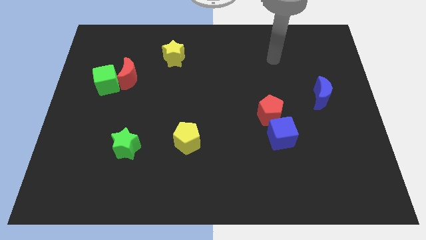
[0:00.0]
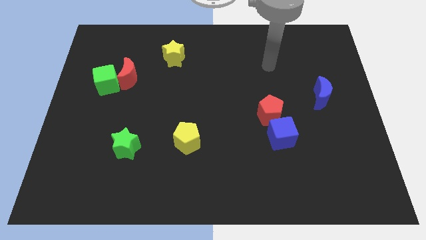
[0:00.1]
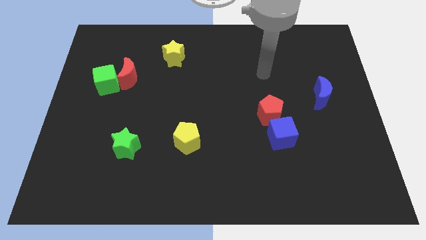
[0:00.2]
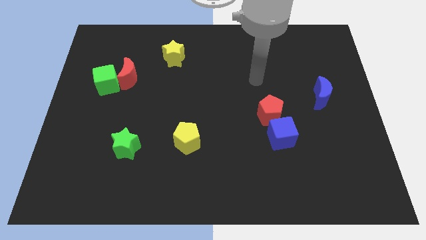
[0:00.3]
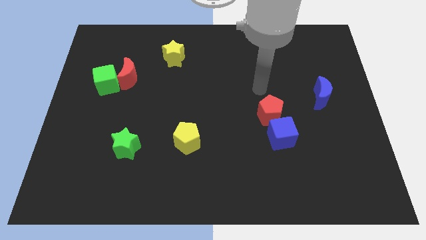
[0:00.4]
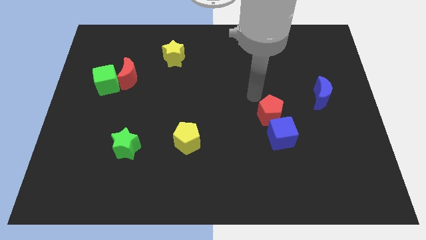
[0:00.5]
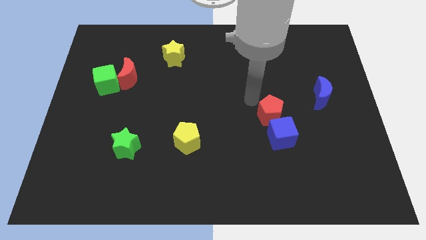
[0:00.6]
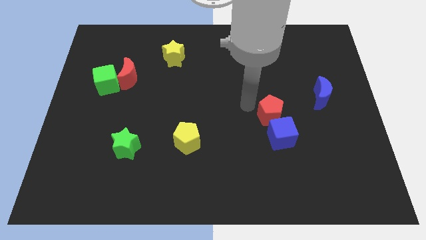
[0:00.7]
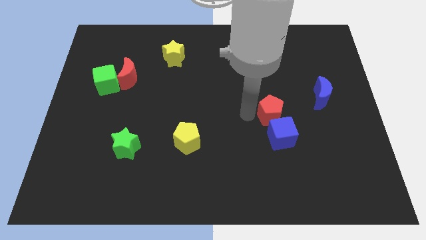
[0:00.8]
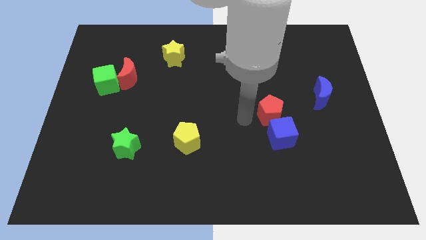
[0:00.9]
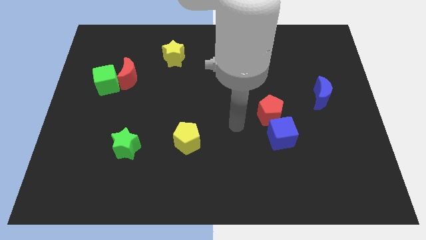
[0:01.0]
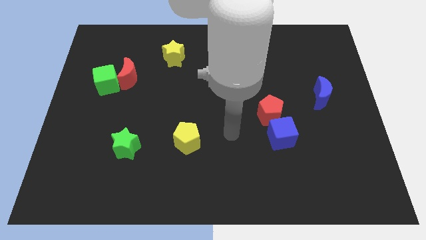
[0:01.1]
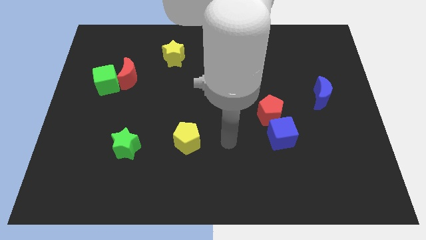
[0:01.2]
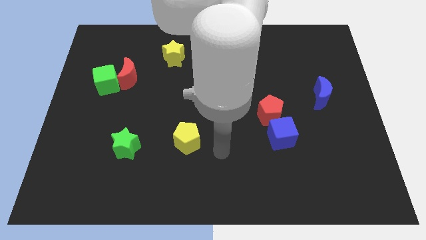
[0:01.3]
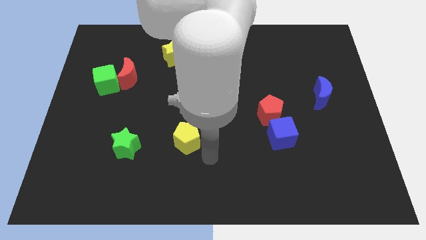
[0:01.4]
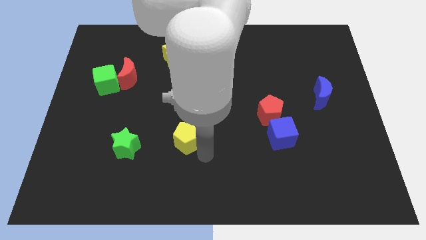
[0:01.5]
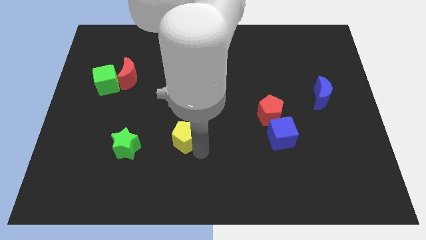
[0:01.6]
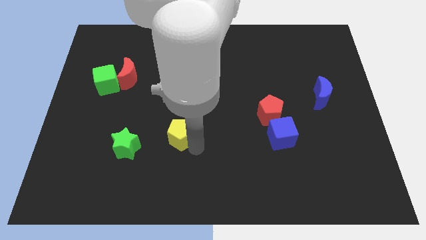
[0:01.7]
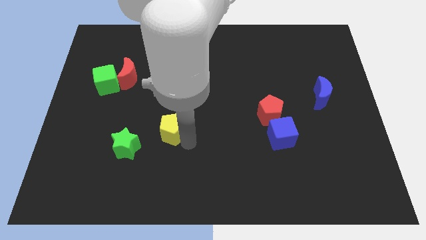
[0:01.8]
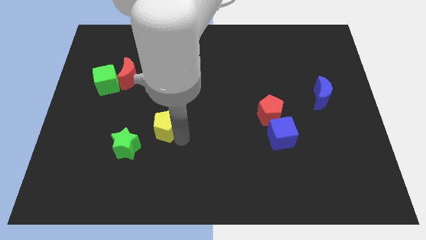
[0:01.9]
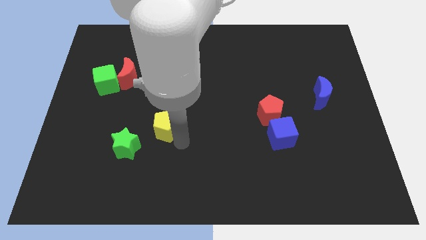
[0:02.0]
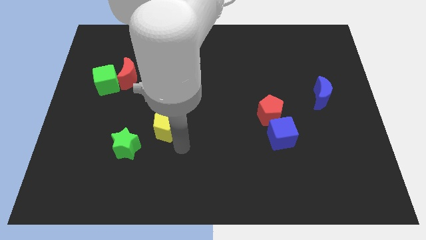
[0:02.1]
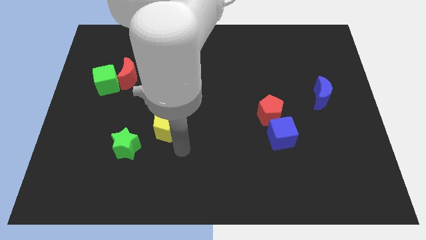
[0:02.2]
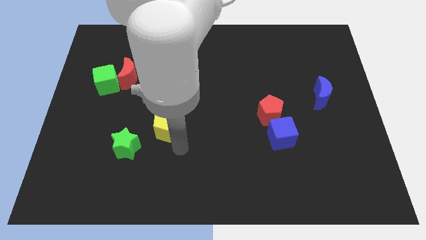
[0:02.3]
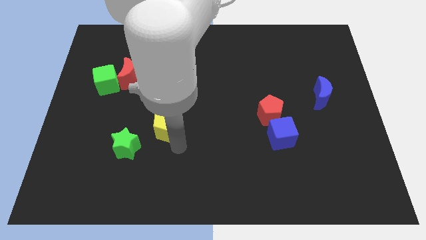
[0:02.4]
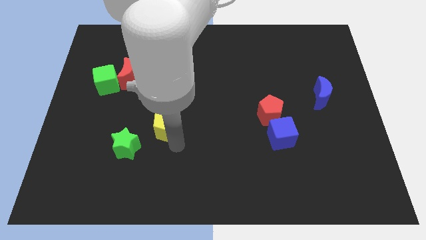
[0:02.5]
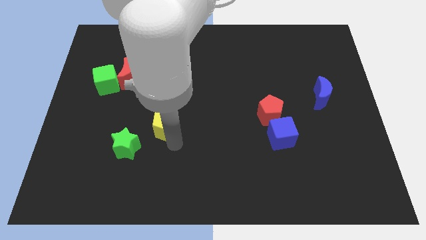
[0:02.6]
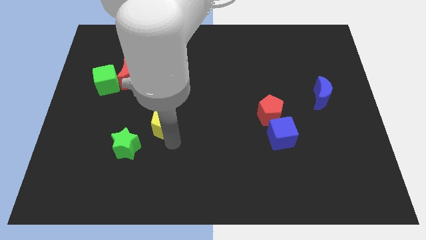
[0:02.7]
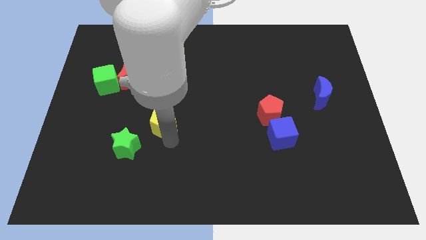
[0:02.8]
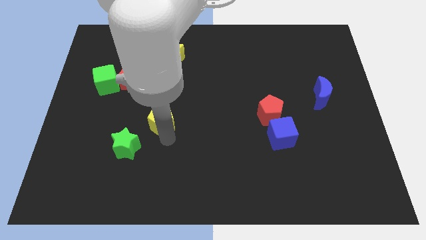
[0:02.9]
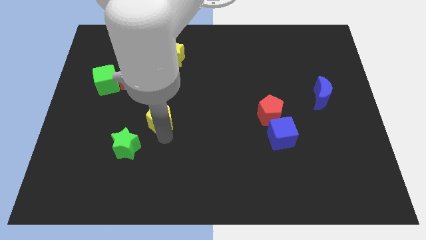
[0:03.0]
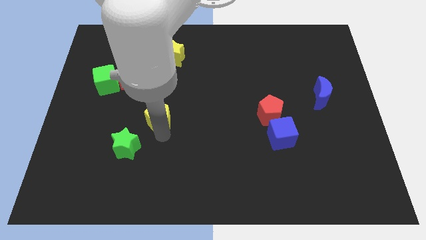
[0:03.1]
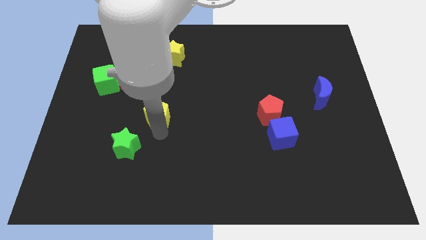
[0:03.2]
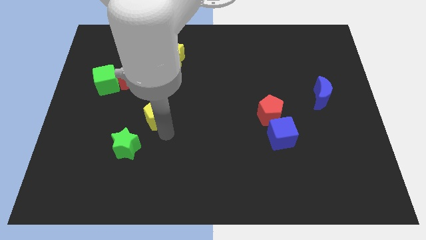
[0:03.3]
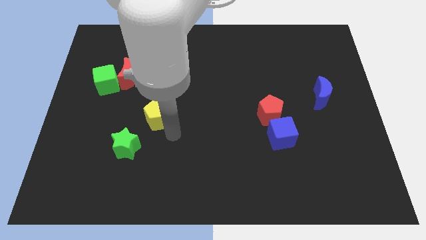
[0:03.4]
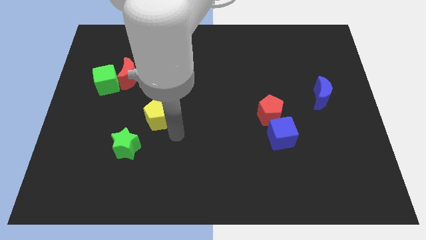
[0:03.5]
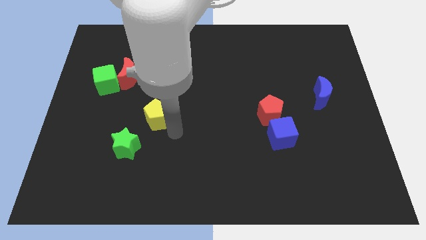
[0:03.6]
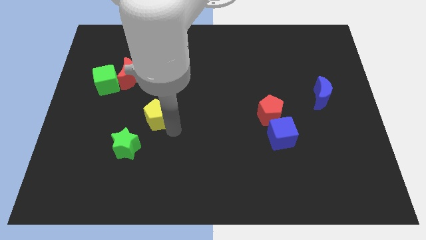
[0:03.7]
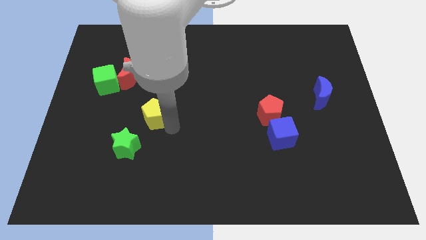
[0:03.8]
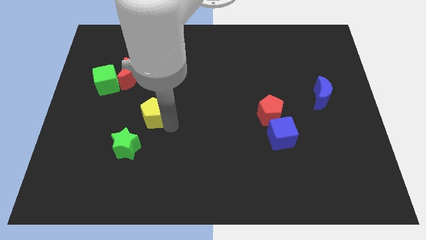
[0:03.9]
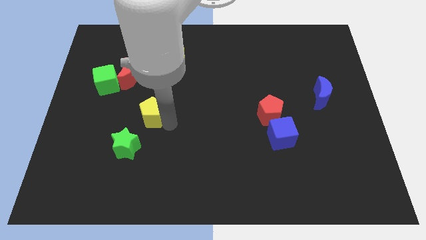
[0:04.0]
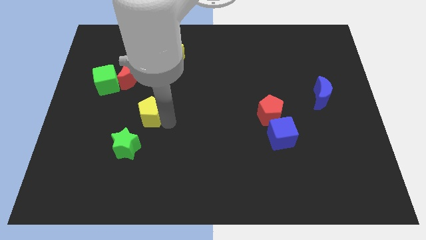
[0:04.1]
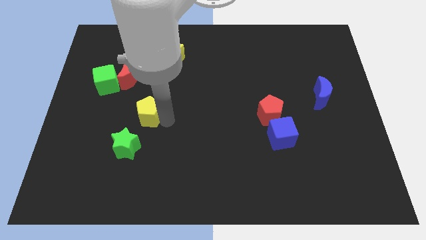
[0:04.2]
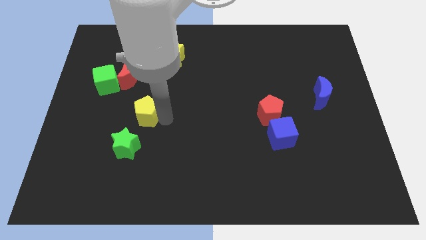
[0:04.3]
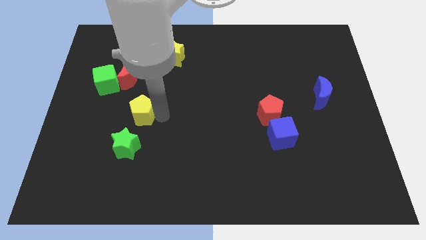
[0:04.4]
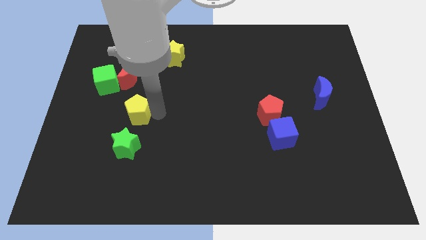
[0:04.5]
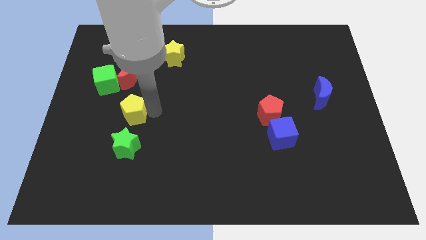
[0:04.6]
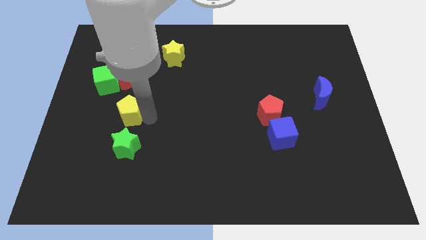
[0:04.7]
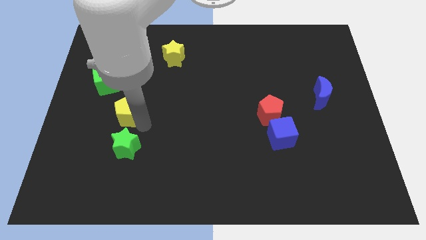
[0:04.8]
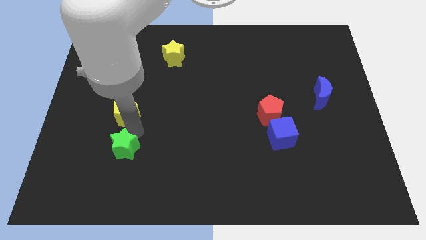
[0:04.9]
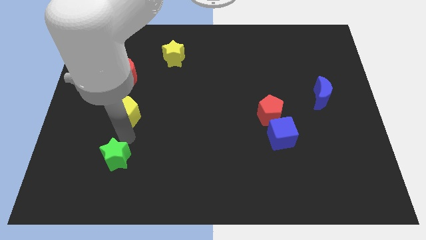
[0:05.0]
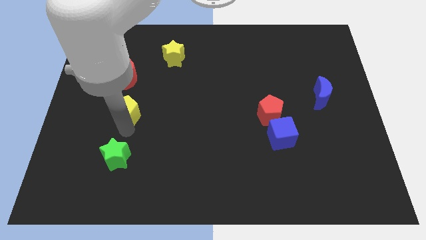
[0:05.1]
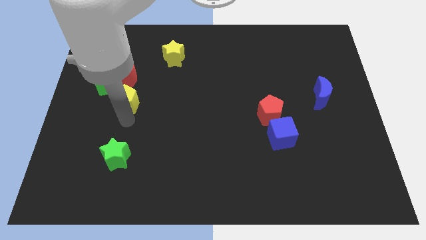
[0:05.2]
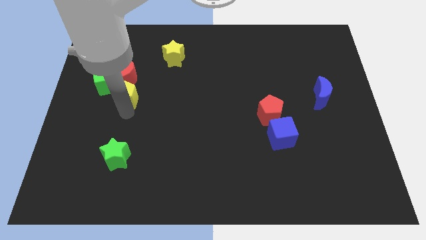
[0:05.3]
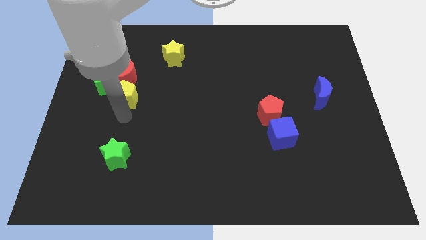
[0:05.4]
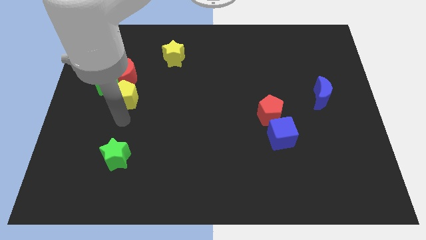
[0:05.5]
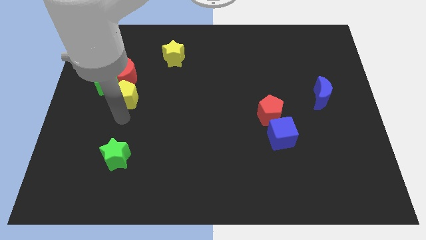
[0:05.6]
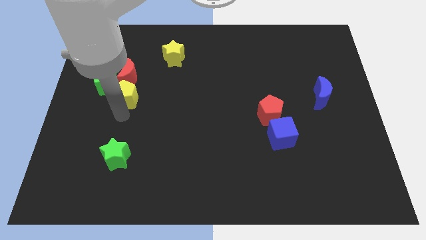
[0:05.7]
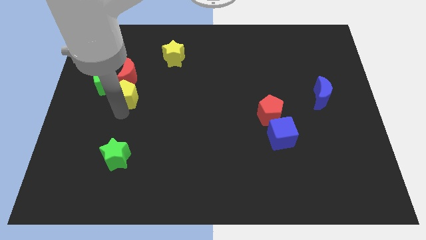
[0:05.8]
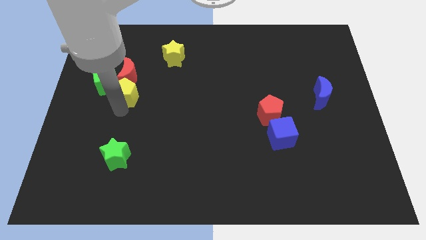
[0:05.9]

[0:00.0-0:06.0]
push the yellow pentagon towards the red moon

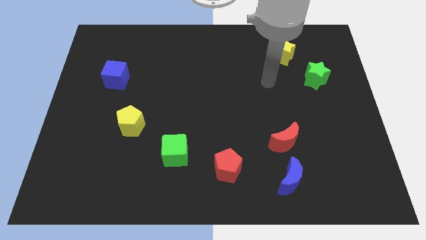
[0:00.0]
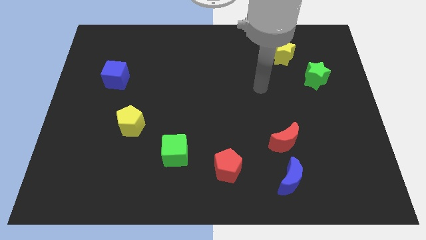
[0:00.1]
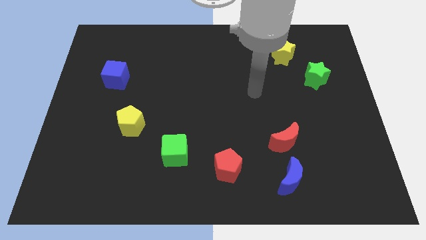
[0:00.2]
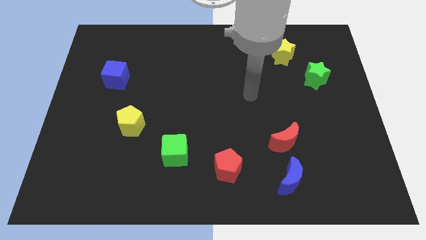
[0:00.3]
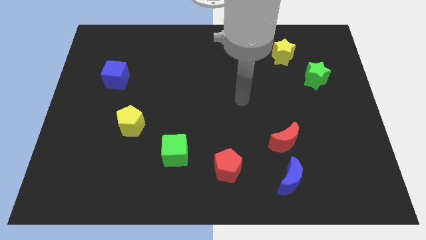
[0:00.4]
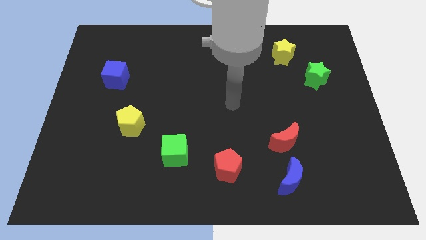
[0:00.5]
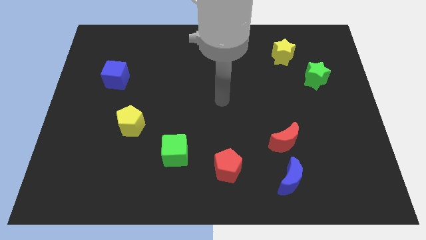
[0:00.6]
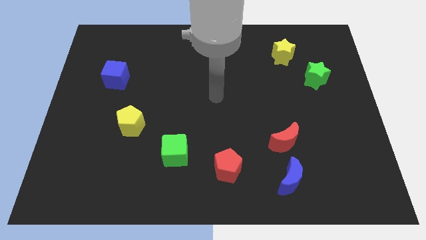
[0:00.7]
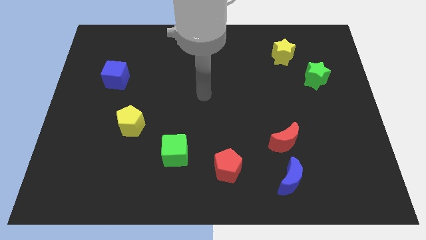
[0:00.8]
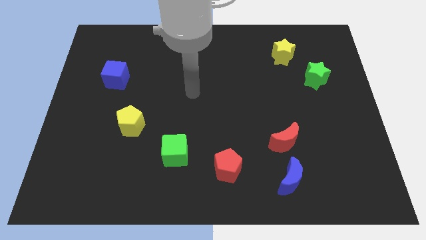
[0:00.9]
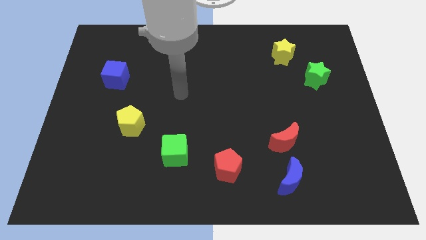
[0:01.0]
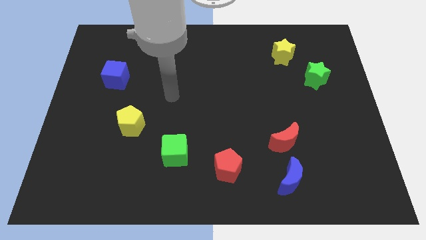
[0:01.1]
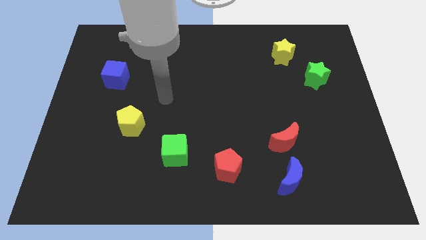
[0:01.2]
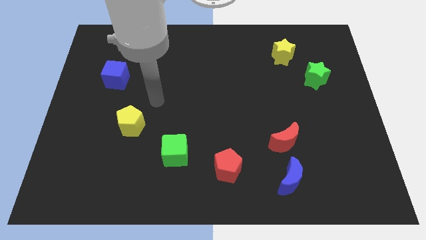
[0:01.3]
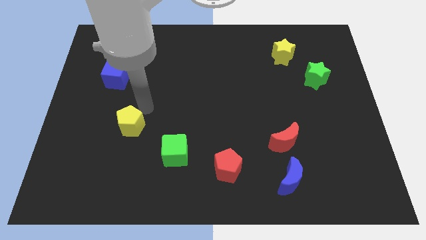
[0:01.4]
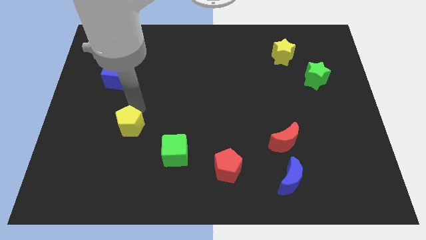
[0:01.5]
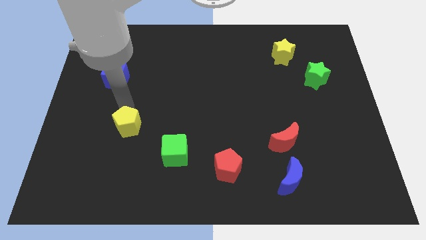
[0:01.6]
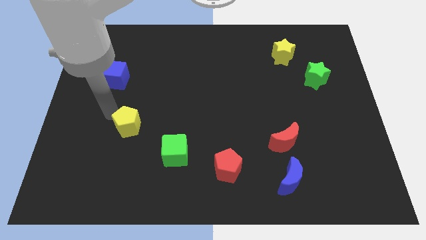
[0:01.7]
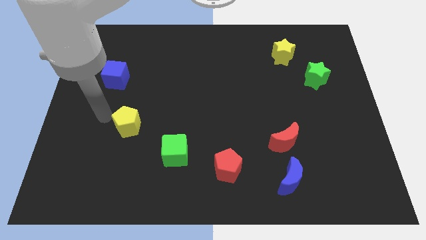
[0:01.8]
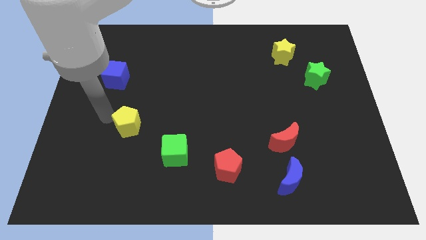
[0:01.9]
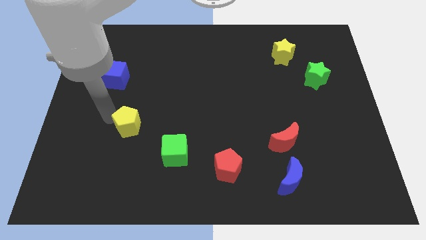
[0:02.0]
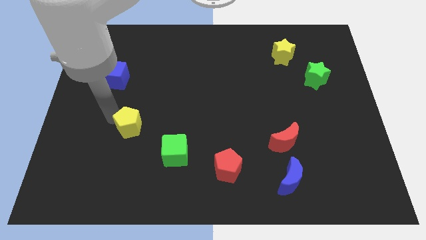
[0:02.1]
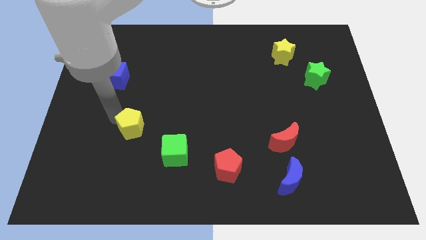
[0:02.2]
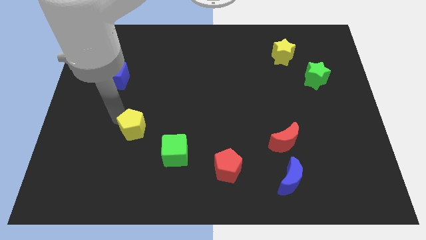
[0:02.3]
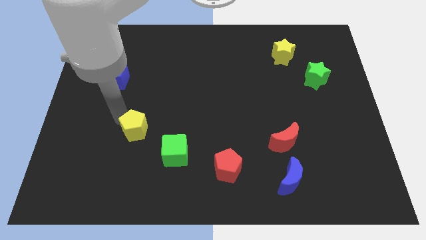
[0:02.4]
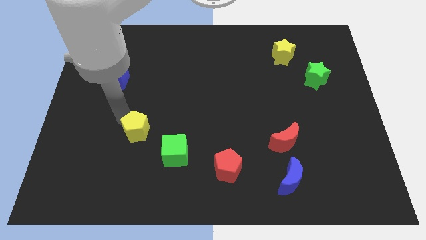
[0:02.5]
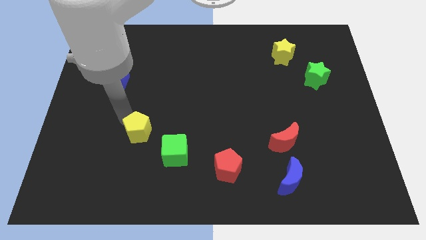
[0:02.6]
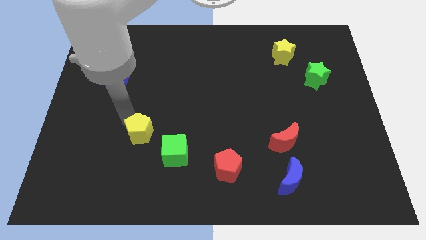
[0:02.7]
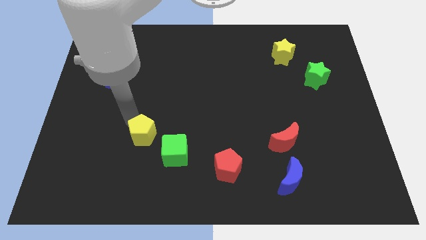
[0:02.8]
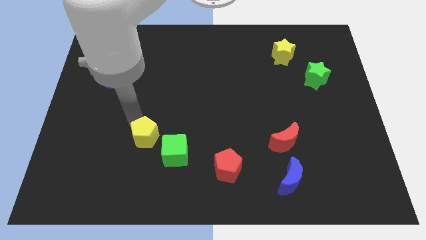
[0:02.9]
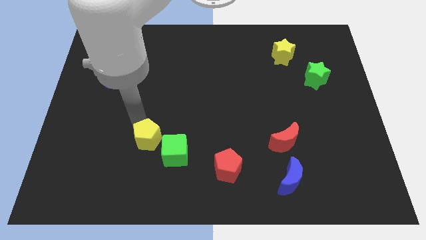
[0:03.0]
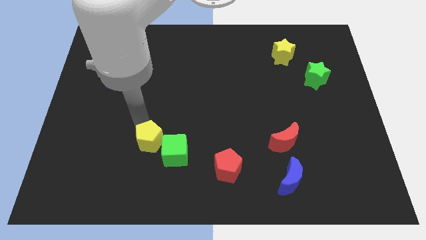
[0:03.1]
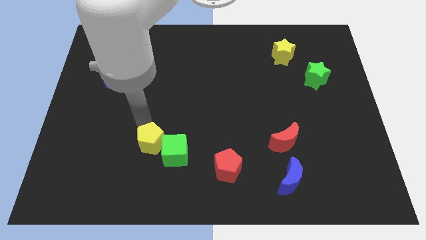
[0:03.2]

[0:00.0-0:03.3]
push the yellow pentagon towards the green cube
